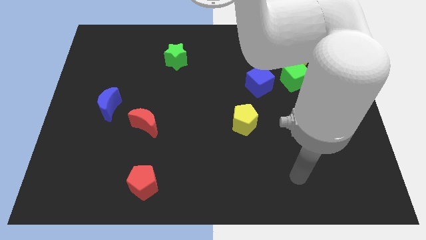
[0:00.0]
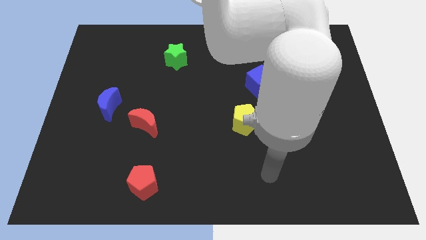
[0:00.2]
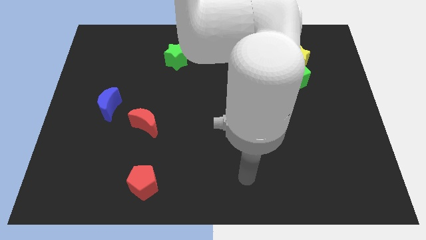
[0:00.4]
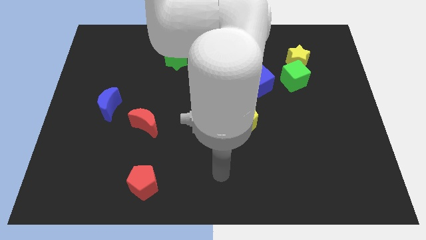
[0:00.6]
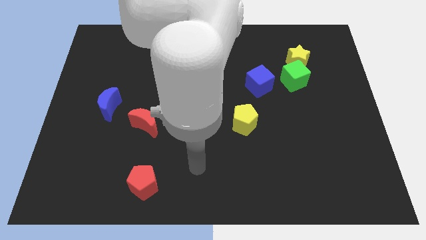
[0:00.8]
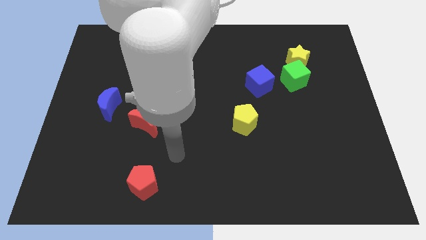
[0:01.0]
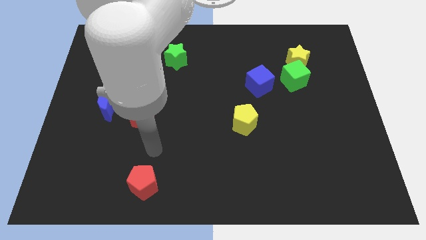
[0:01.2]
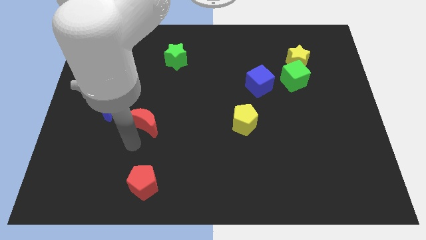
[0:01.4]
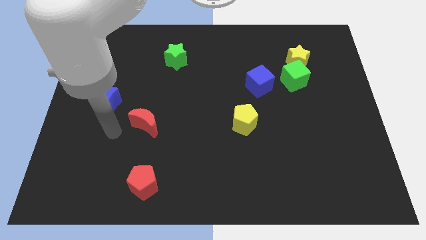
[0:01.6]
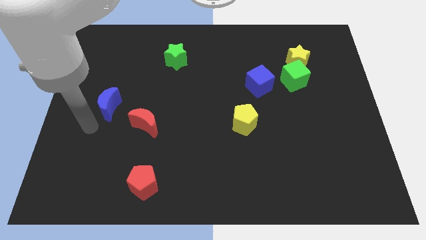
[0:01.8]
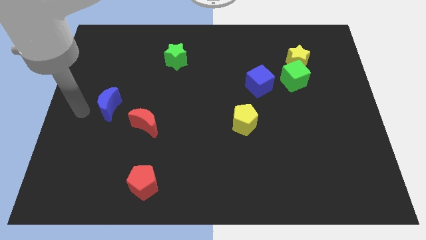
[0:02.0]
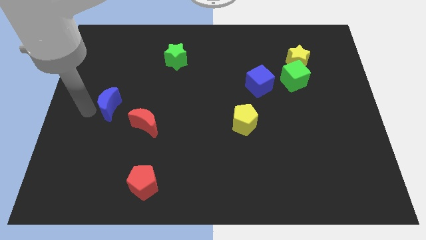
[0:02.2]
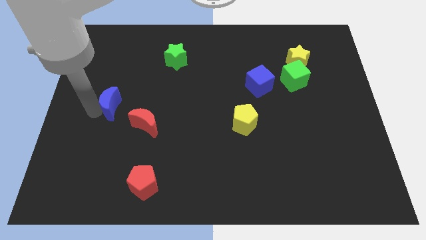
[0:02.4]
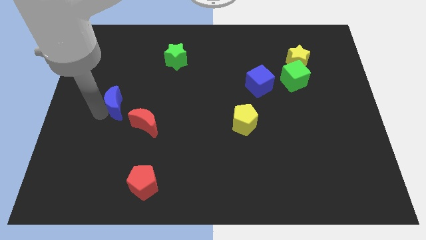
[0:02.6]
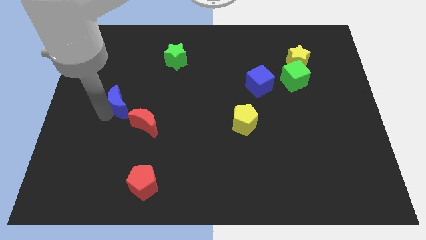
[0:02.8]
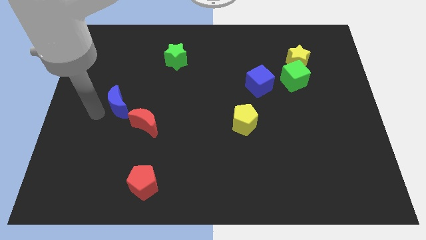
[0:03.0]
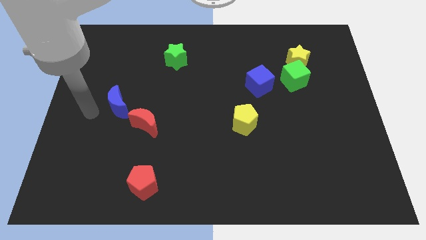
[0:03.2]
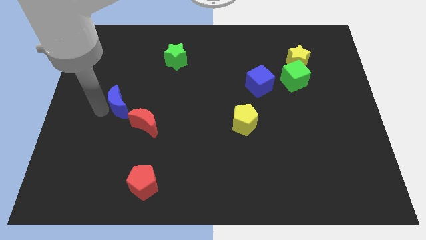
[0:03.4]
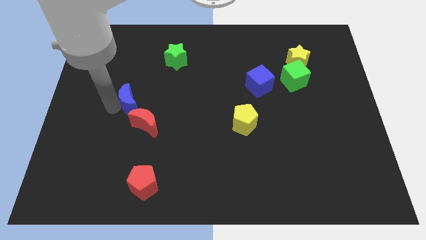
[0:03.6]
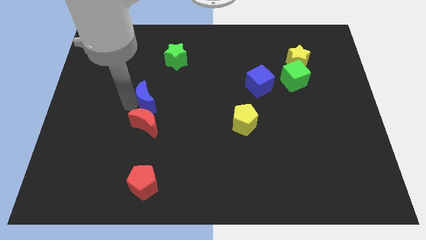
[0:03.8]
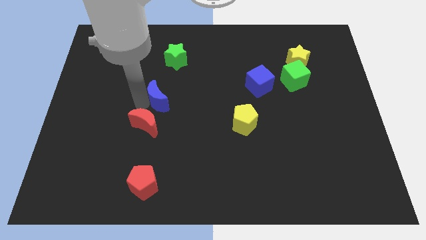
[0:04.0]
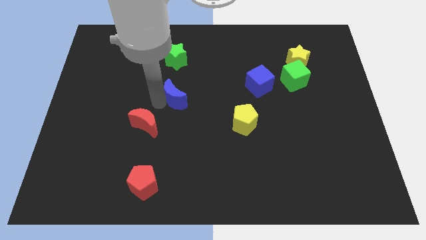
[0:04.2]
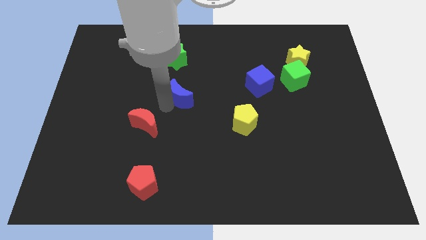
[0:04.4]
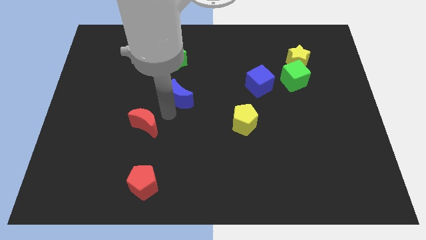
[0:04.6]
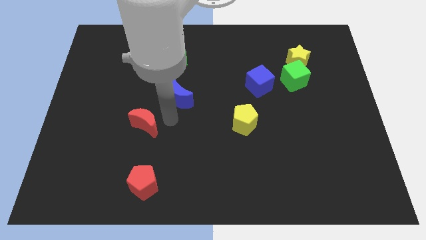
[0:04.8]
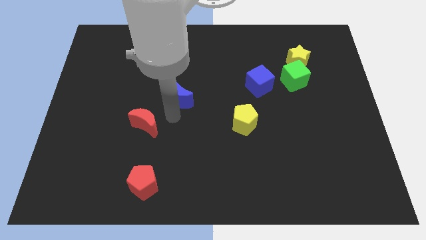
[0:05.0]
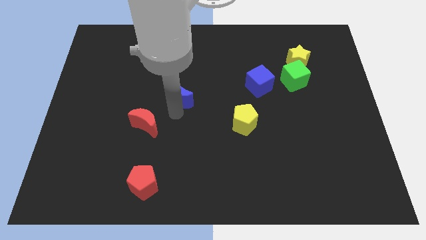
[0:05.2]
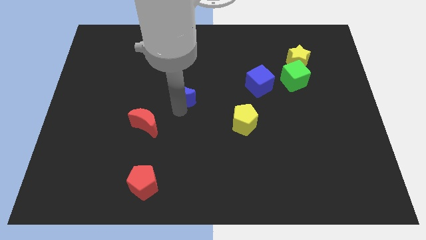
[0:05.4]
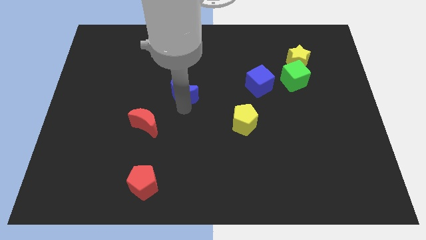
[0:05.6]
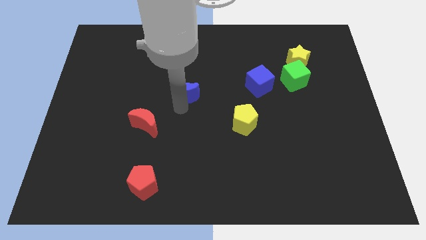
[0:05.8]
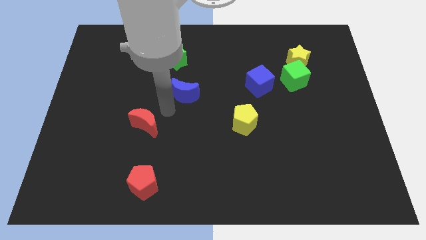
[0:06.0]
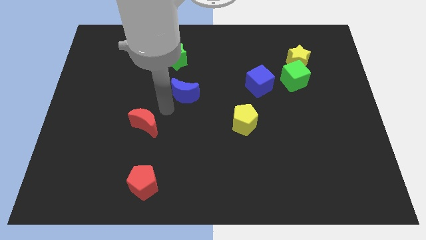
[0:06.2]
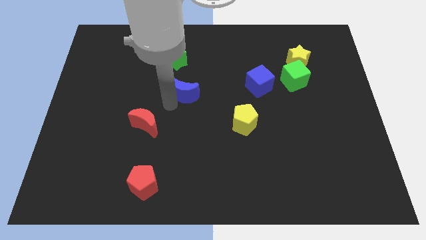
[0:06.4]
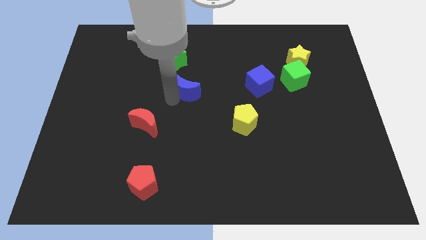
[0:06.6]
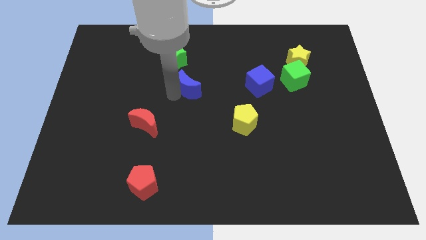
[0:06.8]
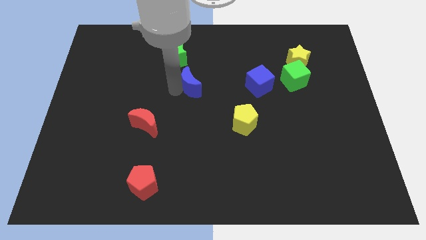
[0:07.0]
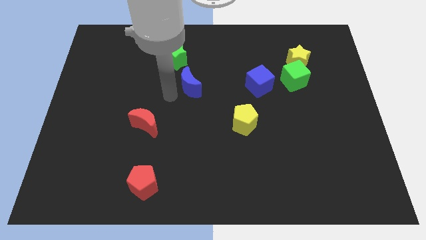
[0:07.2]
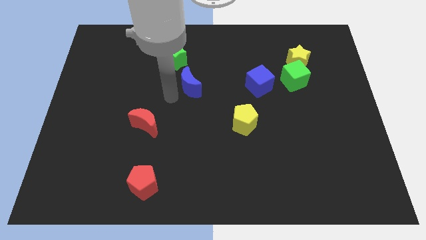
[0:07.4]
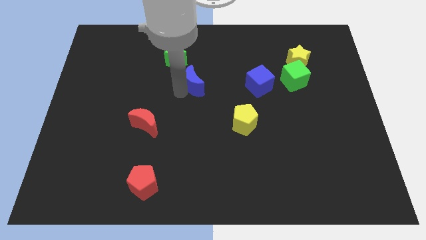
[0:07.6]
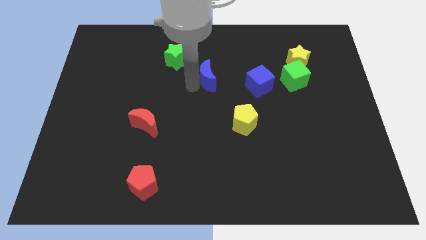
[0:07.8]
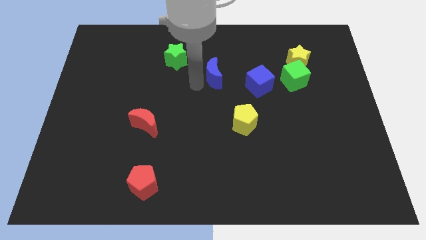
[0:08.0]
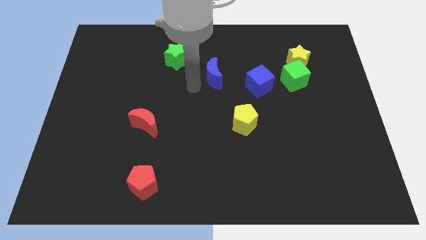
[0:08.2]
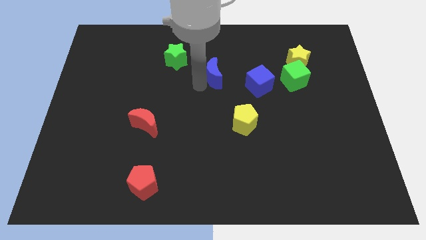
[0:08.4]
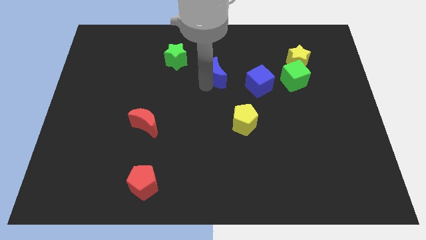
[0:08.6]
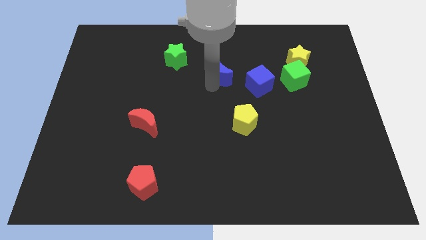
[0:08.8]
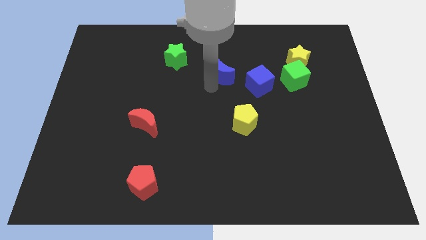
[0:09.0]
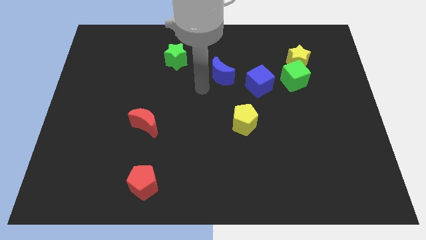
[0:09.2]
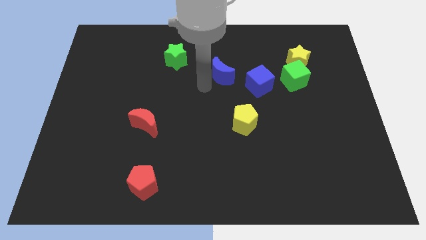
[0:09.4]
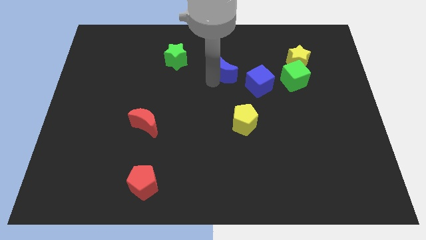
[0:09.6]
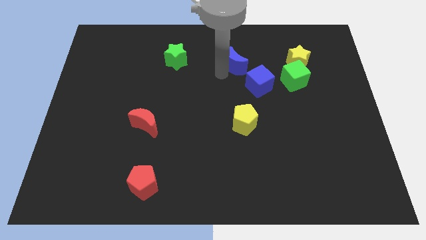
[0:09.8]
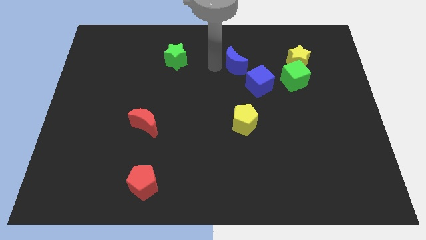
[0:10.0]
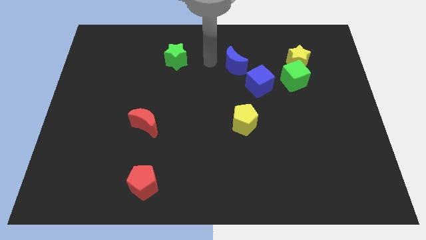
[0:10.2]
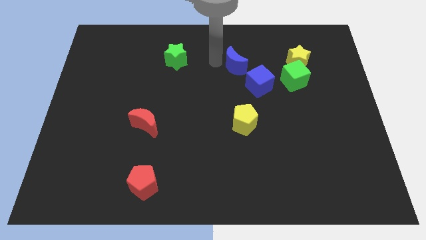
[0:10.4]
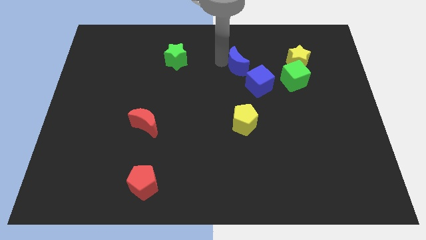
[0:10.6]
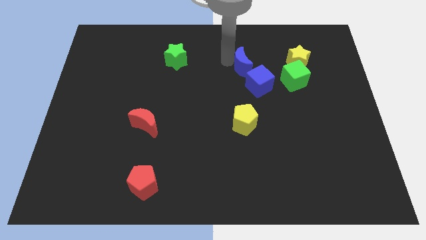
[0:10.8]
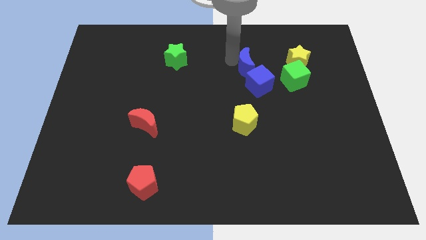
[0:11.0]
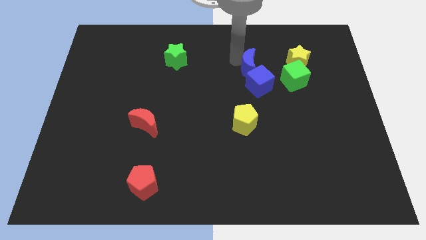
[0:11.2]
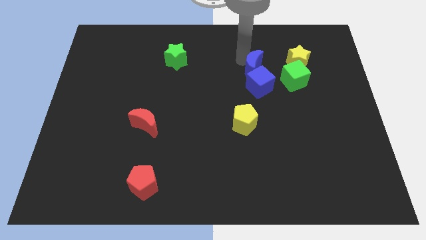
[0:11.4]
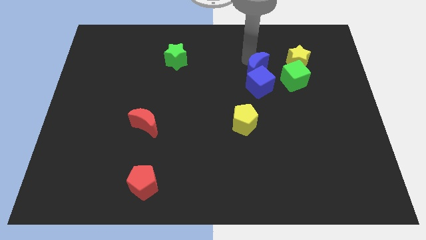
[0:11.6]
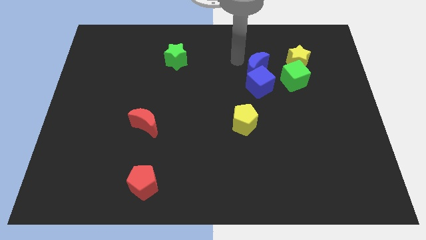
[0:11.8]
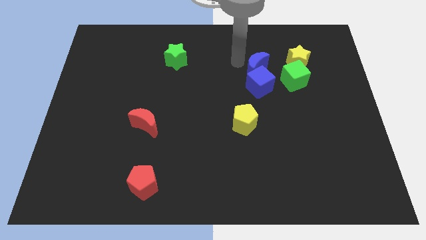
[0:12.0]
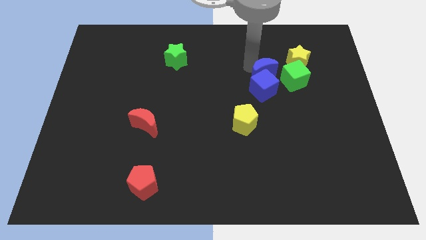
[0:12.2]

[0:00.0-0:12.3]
slide the blue moon to the bottom left of the yellow star

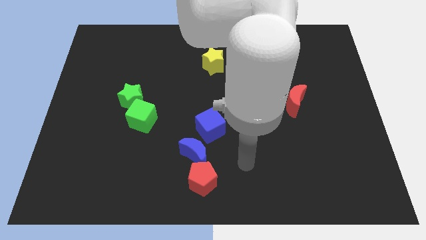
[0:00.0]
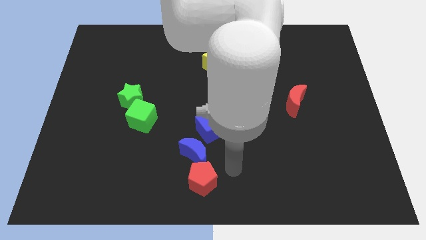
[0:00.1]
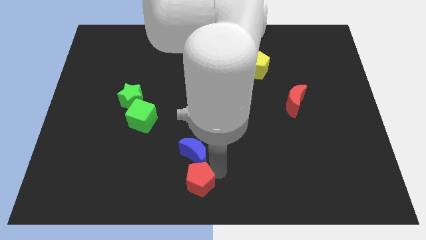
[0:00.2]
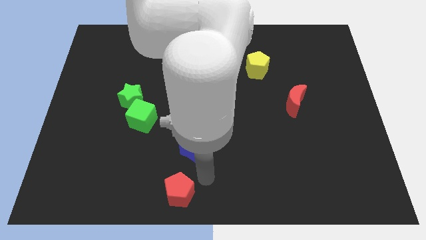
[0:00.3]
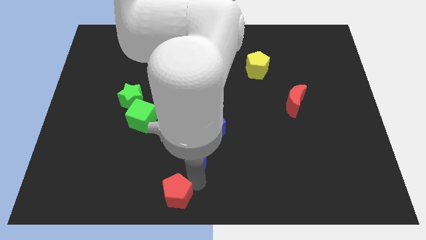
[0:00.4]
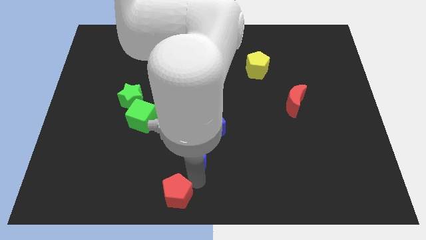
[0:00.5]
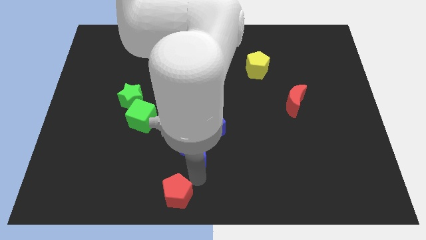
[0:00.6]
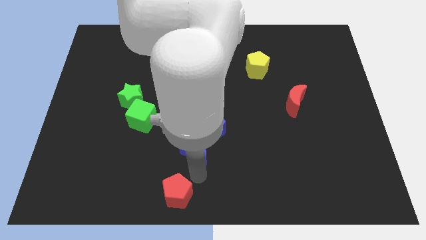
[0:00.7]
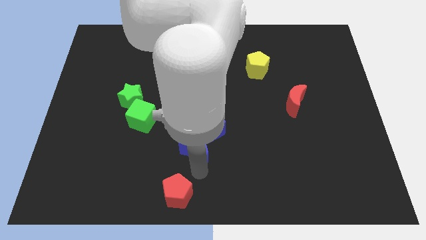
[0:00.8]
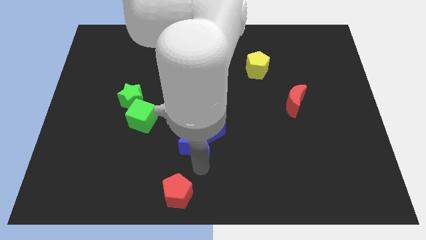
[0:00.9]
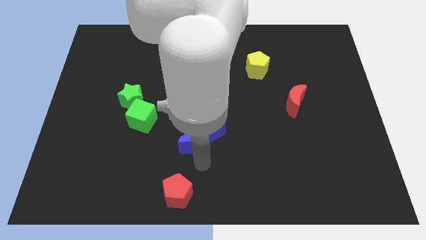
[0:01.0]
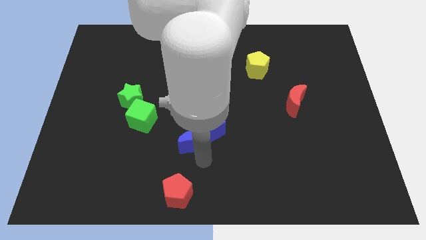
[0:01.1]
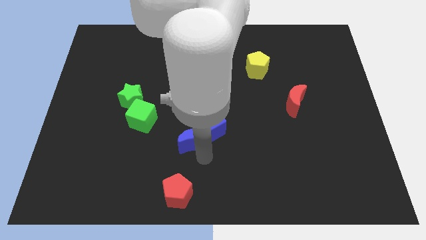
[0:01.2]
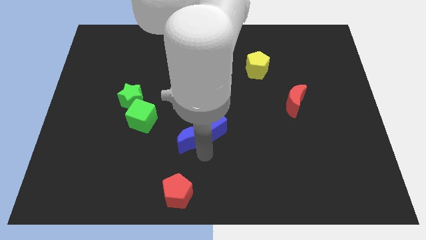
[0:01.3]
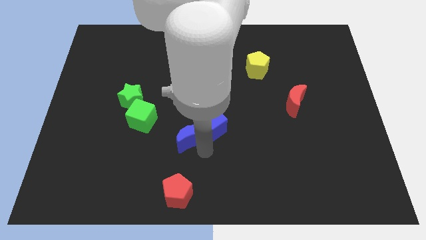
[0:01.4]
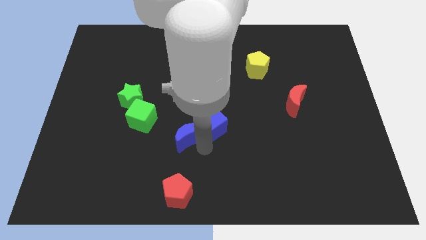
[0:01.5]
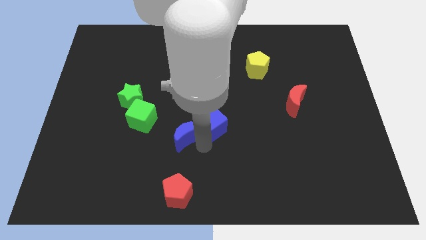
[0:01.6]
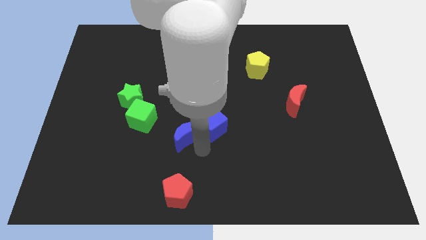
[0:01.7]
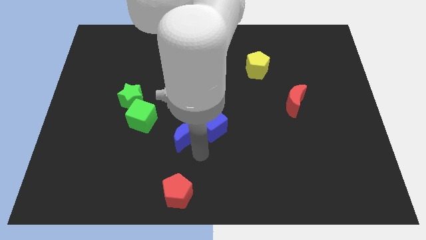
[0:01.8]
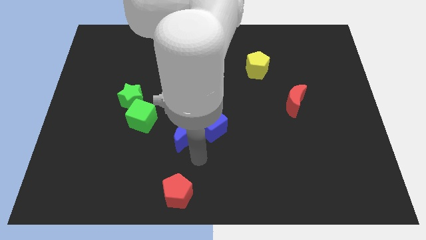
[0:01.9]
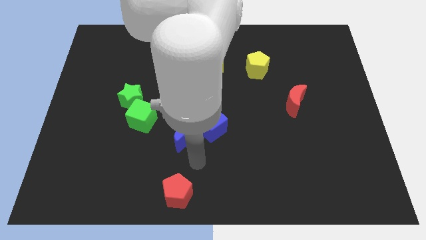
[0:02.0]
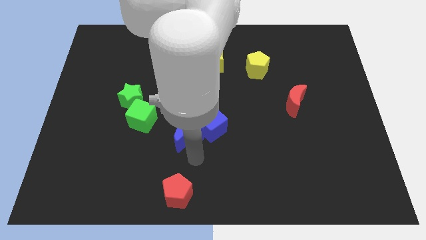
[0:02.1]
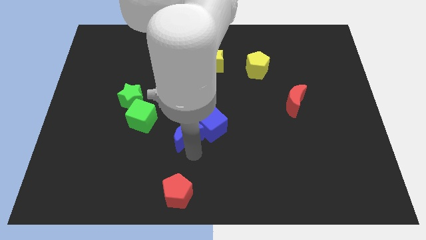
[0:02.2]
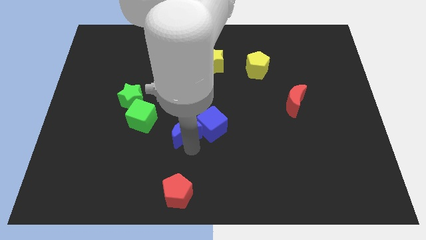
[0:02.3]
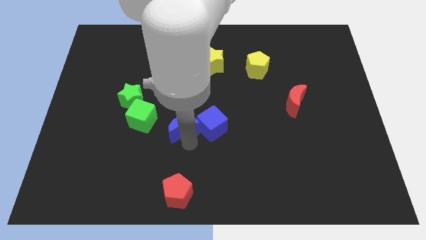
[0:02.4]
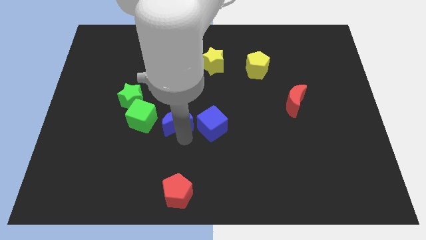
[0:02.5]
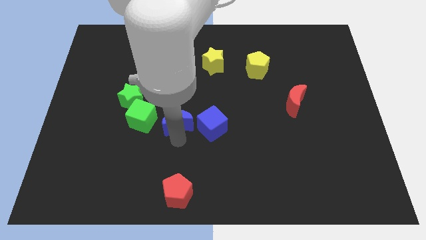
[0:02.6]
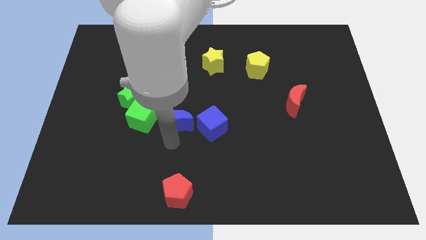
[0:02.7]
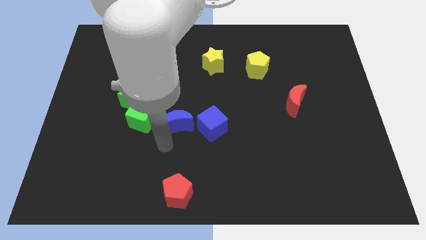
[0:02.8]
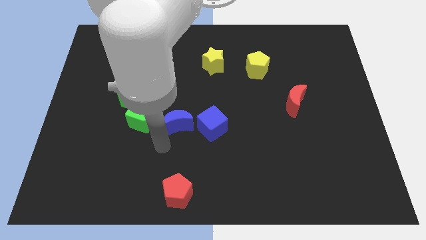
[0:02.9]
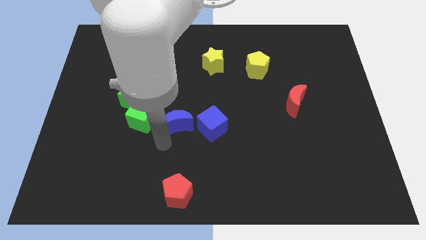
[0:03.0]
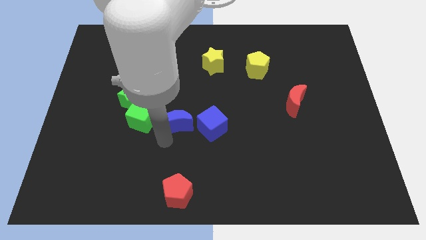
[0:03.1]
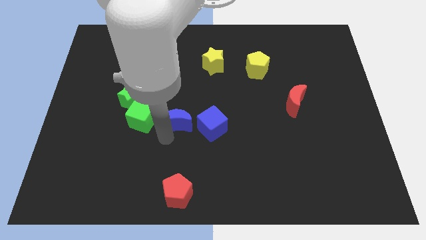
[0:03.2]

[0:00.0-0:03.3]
put the blue moon to the top left side of the blue cube
